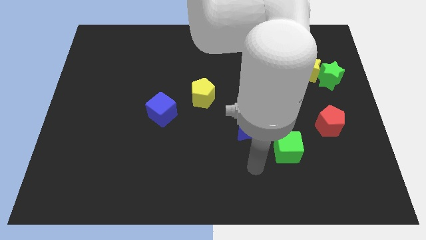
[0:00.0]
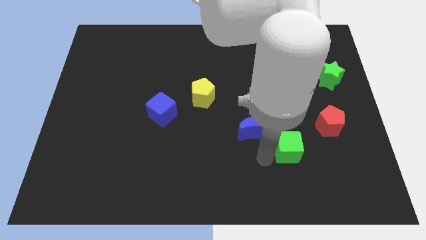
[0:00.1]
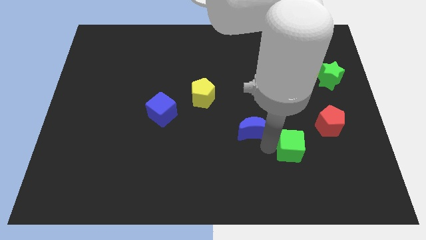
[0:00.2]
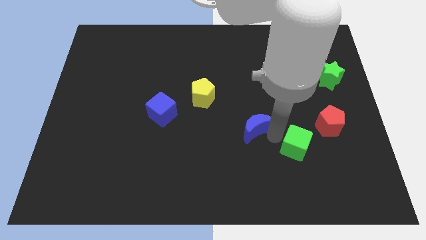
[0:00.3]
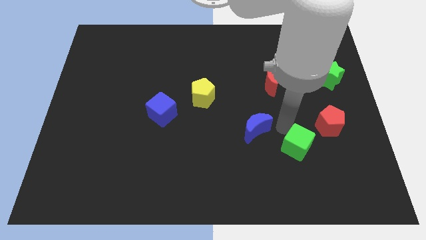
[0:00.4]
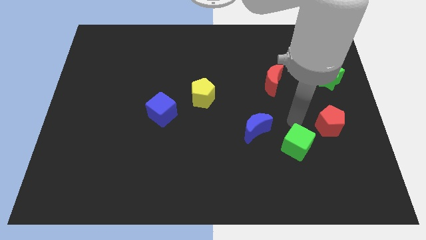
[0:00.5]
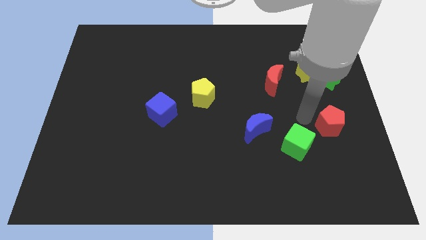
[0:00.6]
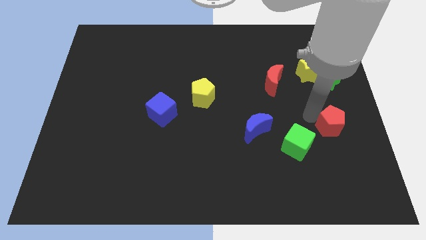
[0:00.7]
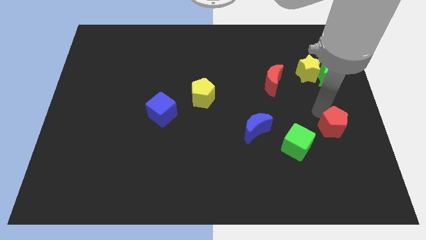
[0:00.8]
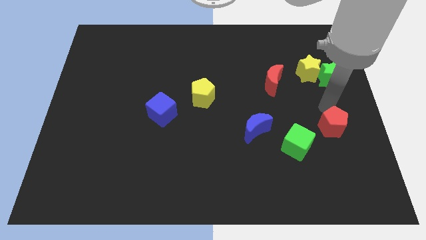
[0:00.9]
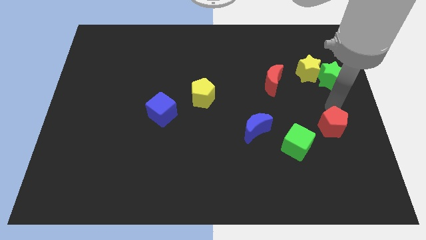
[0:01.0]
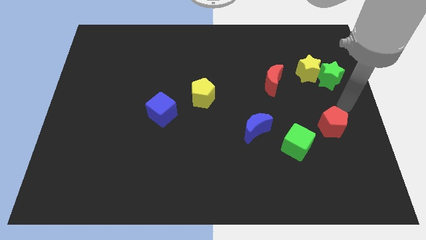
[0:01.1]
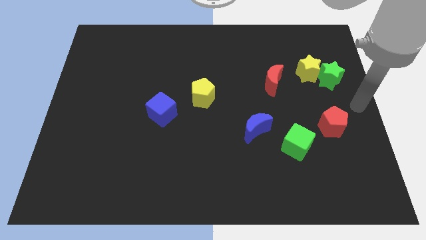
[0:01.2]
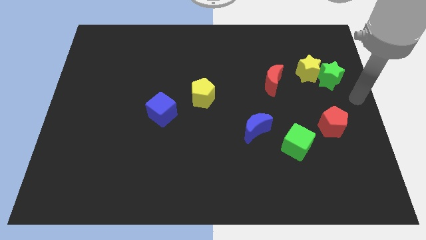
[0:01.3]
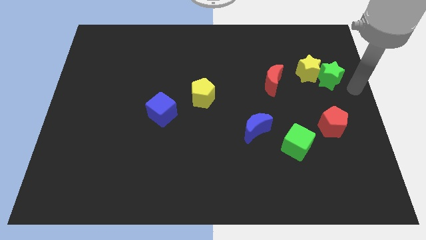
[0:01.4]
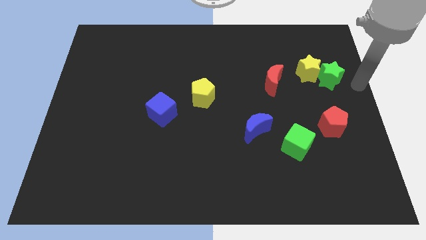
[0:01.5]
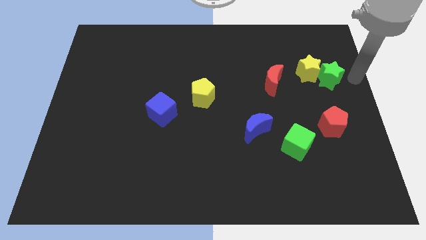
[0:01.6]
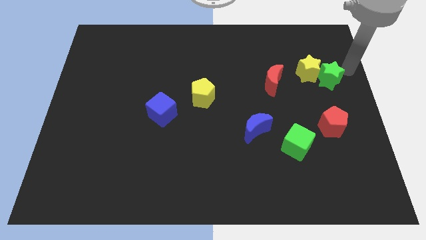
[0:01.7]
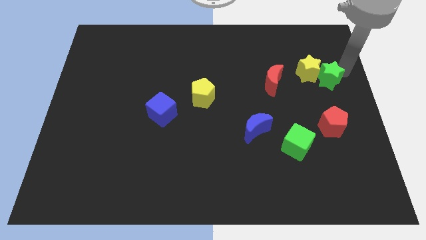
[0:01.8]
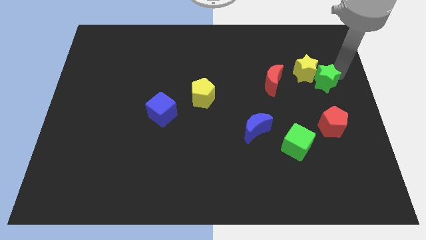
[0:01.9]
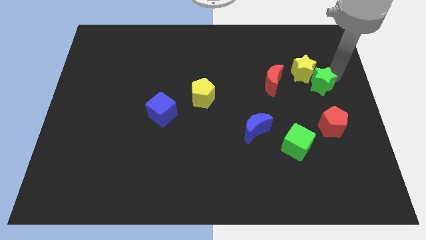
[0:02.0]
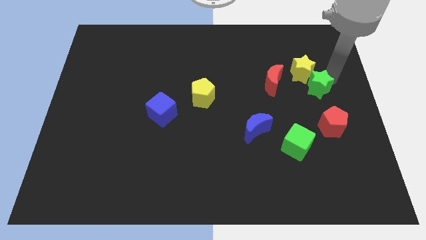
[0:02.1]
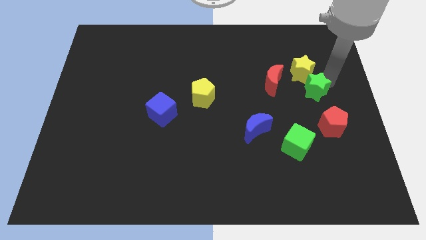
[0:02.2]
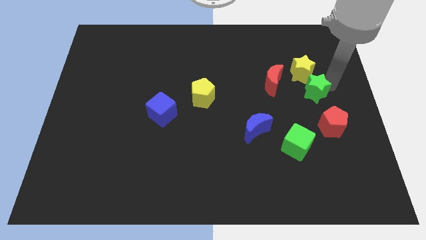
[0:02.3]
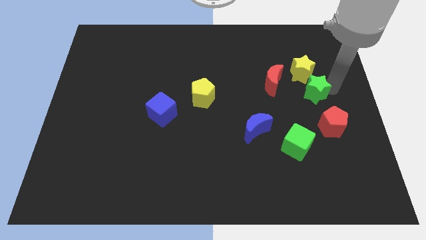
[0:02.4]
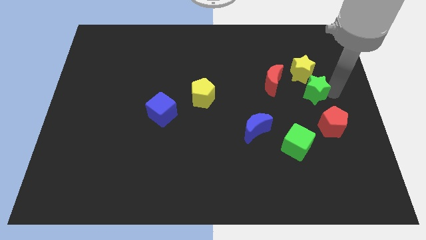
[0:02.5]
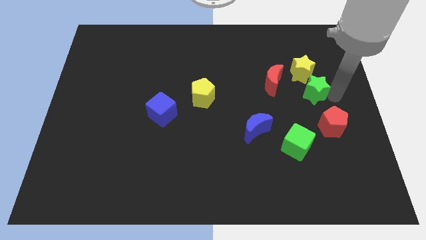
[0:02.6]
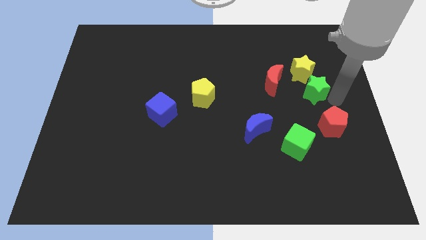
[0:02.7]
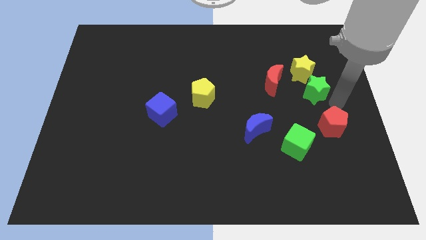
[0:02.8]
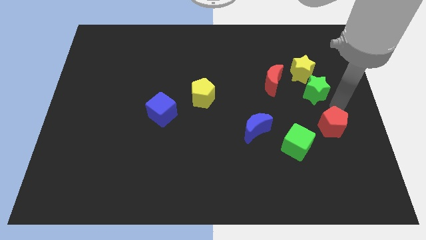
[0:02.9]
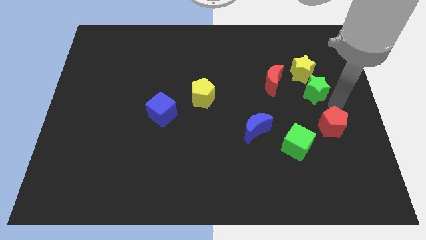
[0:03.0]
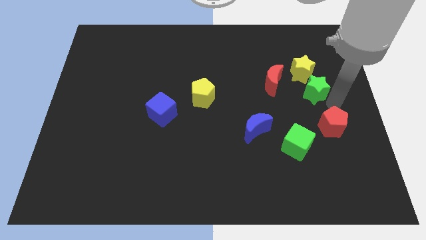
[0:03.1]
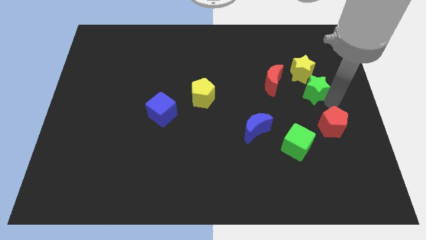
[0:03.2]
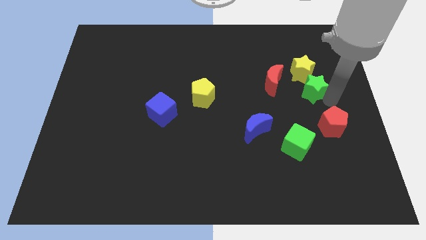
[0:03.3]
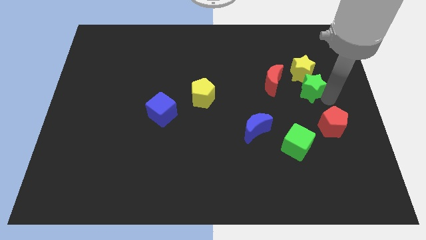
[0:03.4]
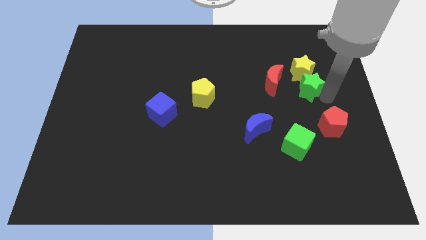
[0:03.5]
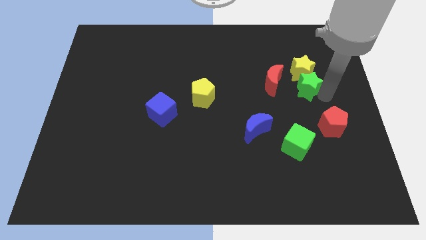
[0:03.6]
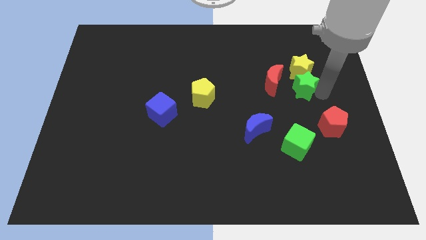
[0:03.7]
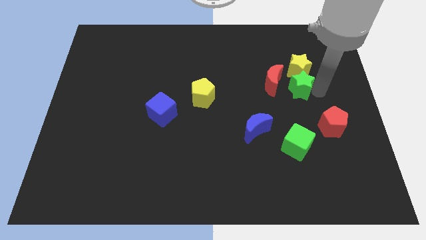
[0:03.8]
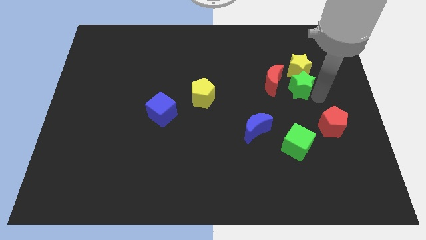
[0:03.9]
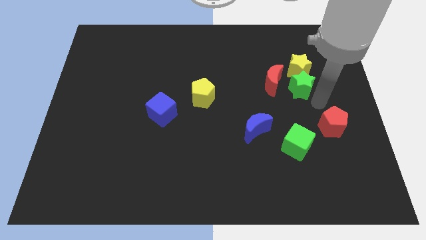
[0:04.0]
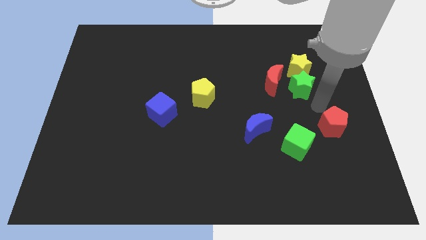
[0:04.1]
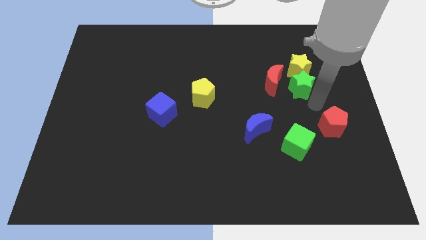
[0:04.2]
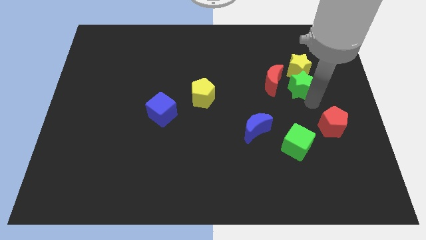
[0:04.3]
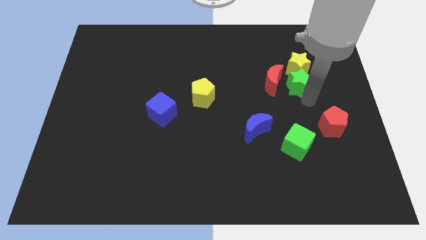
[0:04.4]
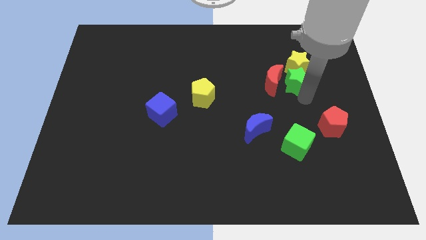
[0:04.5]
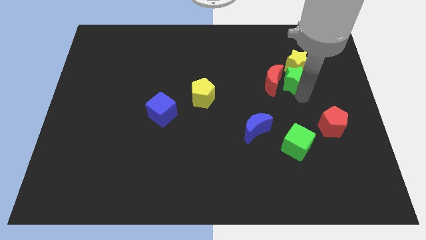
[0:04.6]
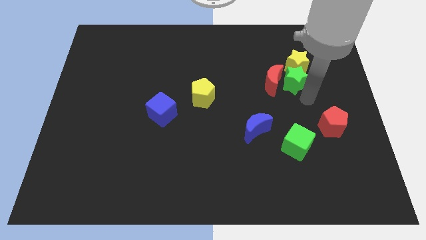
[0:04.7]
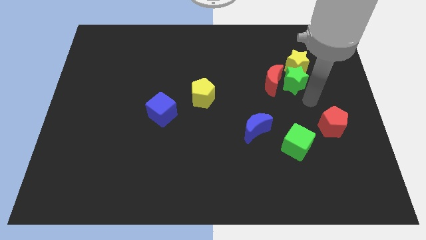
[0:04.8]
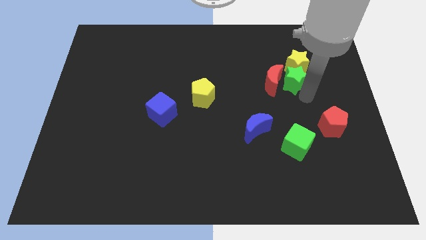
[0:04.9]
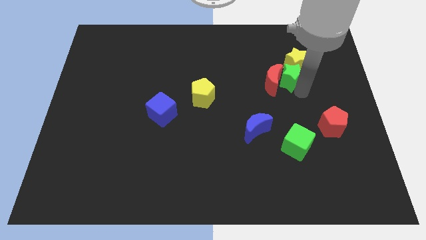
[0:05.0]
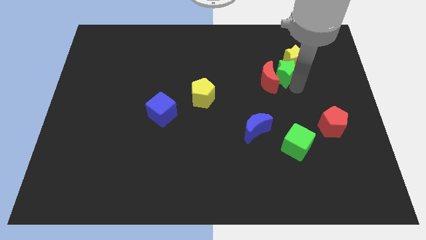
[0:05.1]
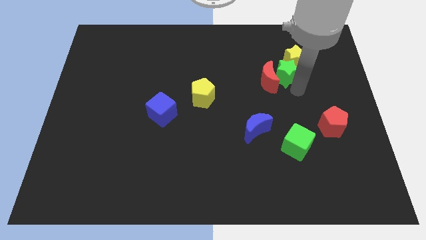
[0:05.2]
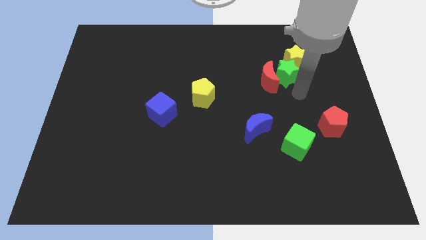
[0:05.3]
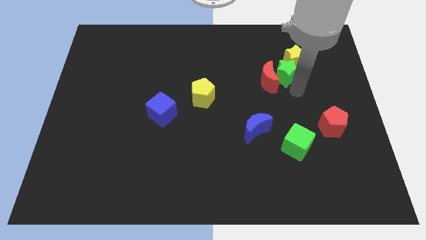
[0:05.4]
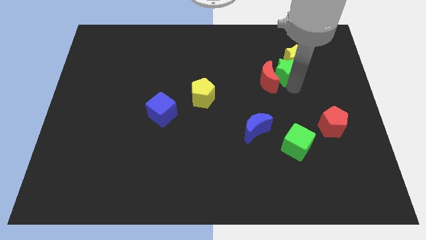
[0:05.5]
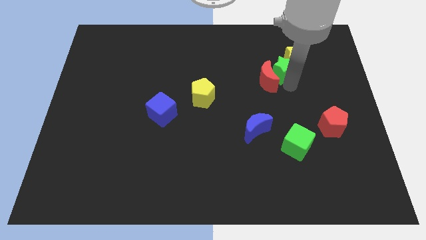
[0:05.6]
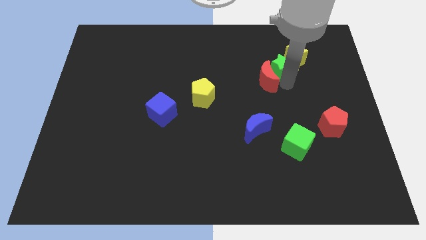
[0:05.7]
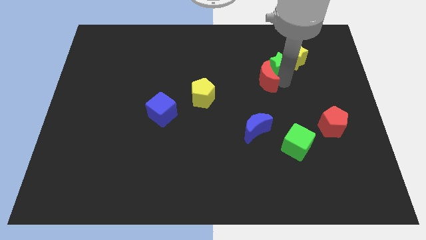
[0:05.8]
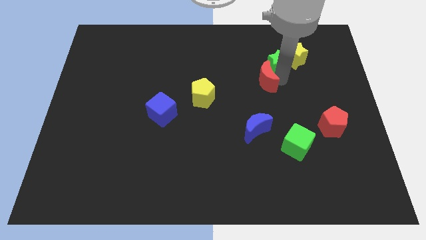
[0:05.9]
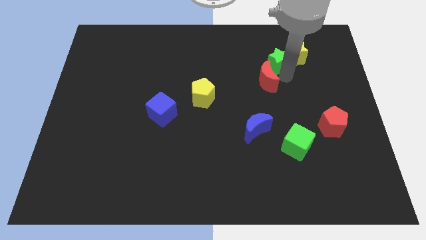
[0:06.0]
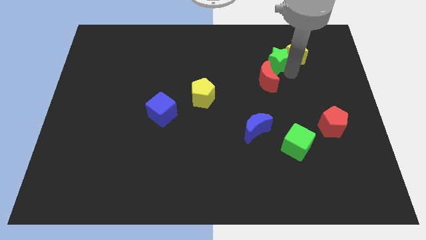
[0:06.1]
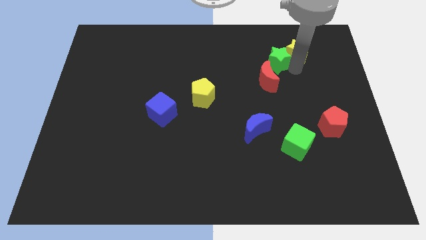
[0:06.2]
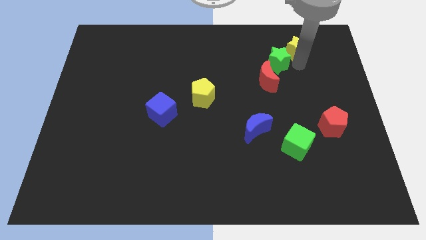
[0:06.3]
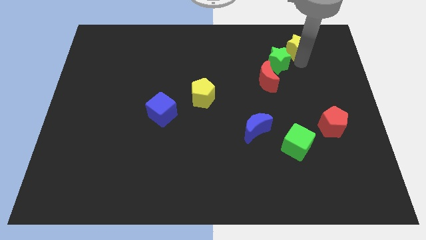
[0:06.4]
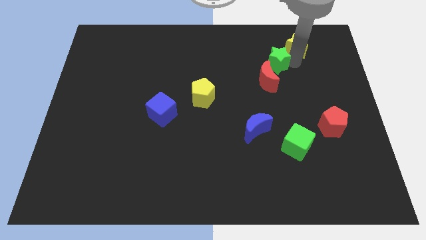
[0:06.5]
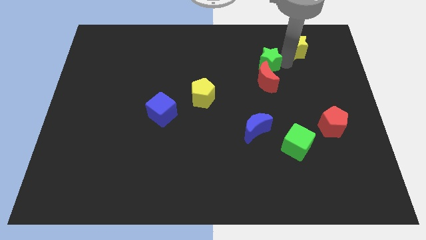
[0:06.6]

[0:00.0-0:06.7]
move the green star to the top left side of the red moon

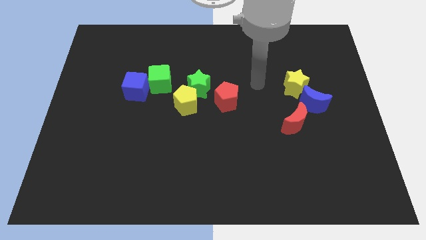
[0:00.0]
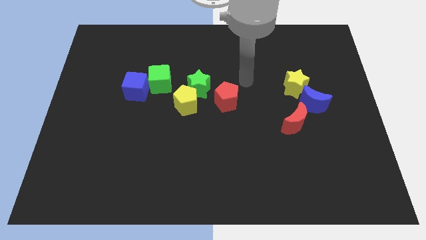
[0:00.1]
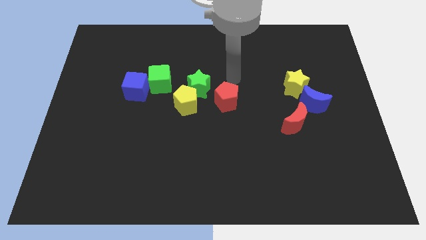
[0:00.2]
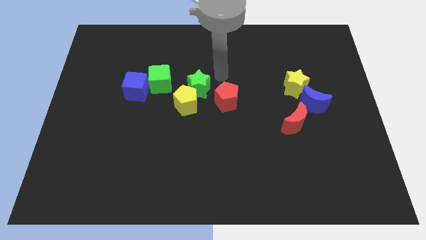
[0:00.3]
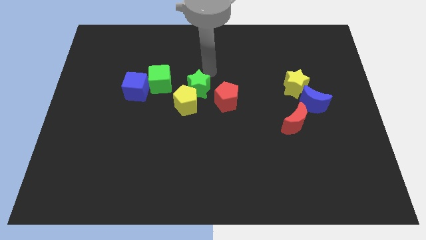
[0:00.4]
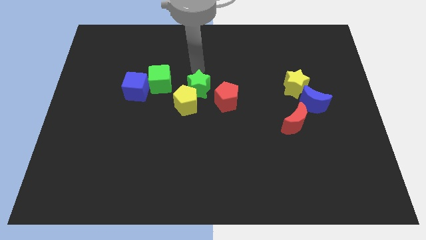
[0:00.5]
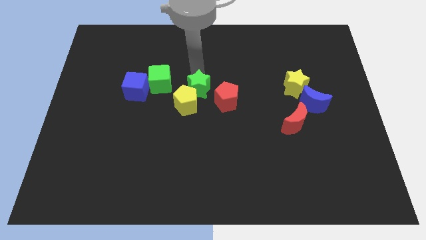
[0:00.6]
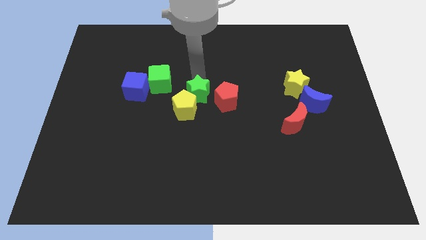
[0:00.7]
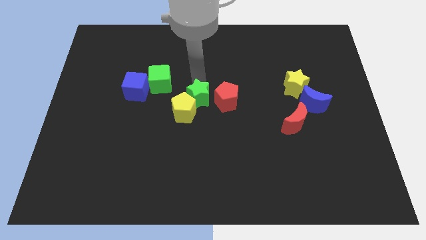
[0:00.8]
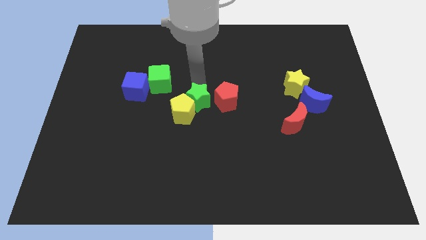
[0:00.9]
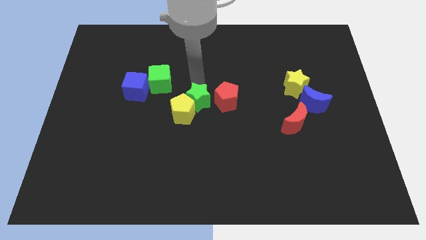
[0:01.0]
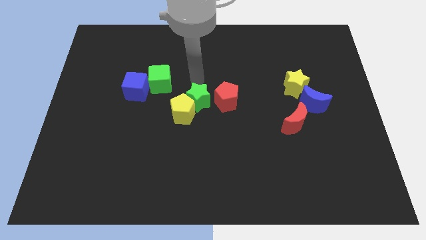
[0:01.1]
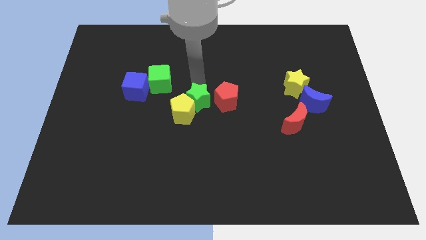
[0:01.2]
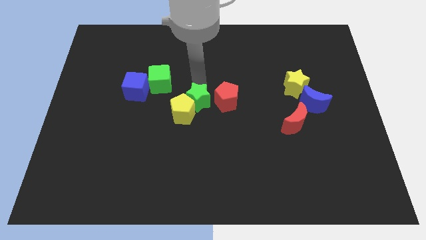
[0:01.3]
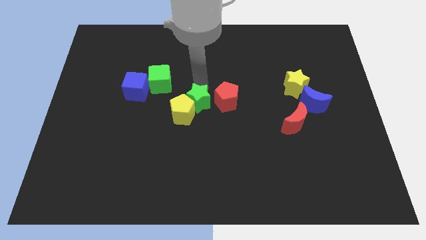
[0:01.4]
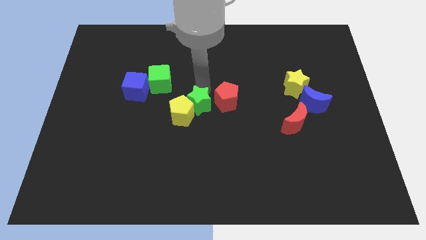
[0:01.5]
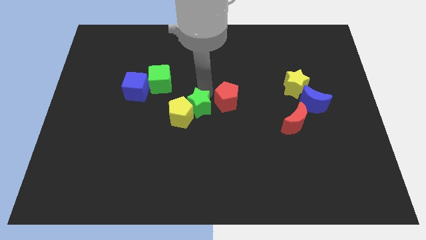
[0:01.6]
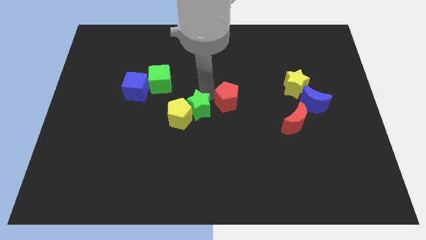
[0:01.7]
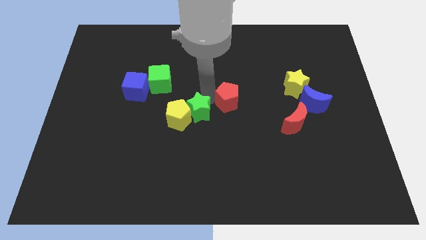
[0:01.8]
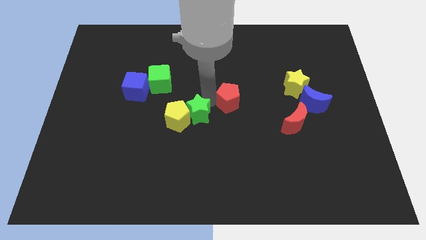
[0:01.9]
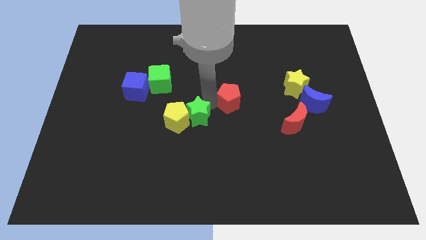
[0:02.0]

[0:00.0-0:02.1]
move the green star diagonally down and to the right of the yellow pentagon
